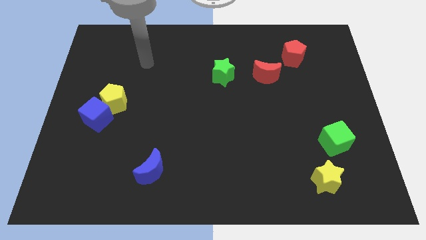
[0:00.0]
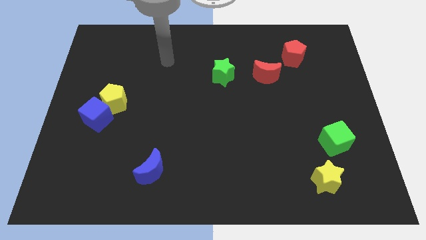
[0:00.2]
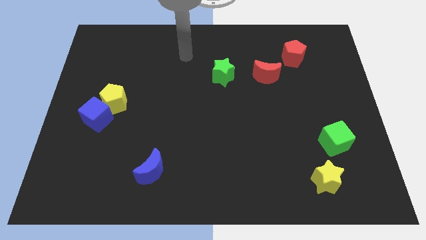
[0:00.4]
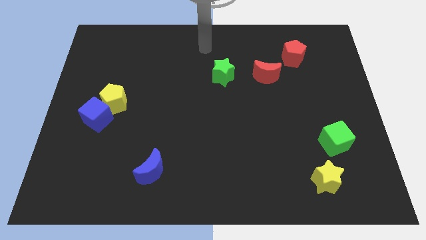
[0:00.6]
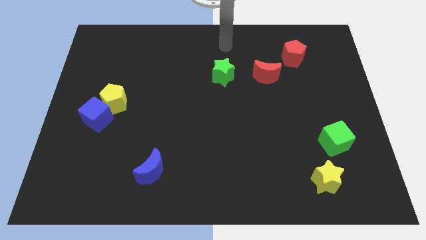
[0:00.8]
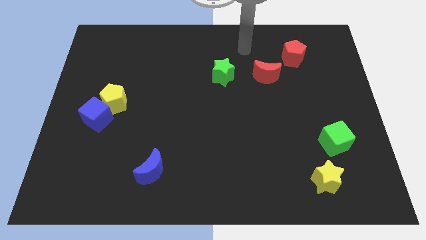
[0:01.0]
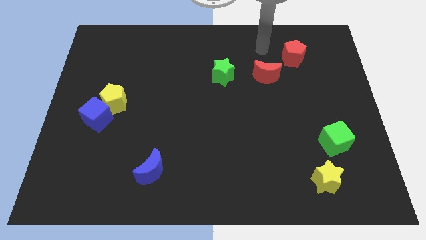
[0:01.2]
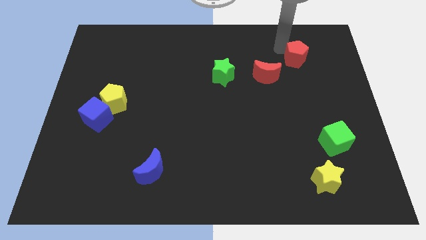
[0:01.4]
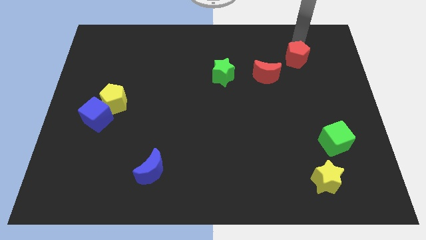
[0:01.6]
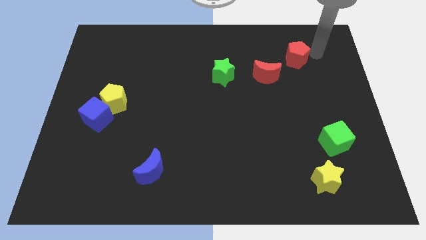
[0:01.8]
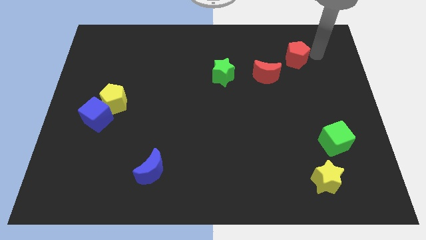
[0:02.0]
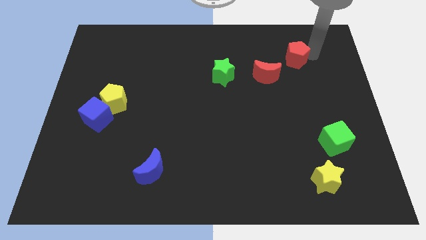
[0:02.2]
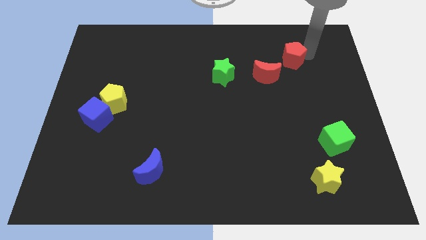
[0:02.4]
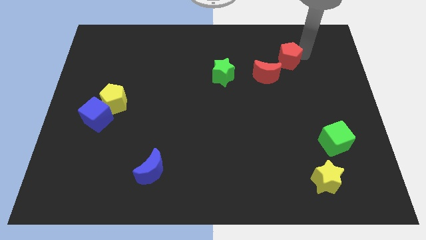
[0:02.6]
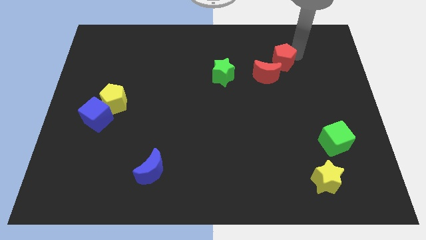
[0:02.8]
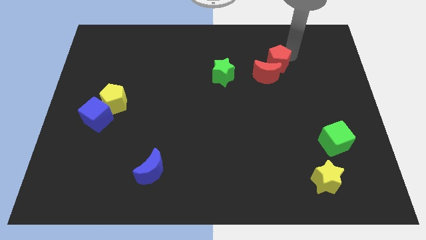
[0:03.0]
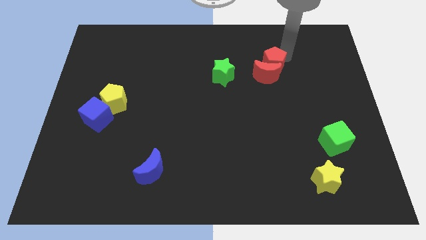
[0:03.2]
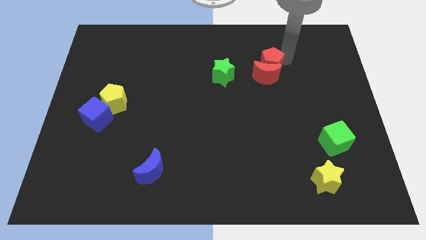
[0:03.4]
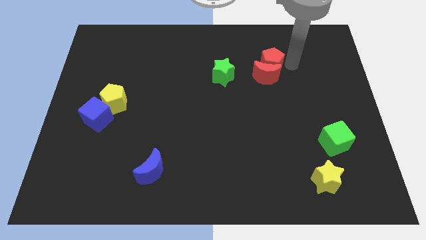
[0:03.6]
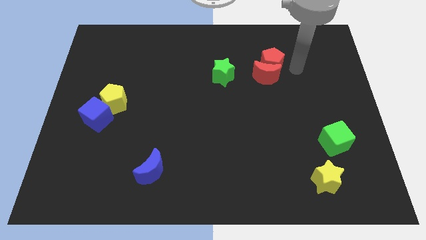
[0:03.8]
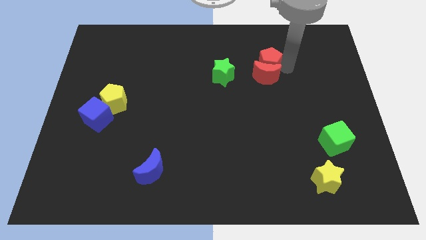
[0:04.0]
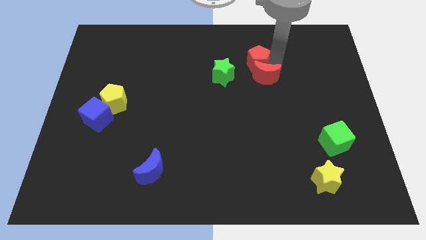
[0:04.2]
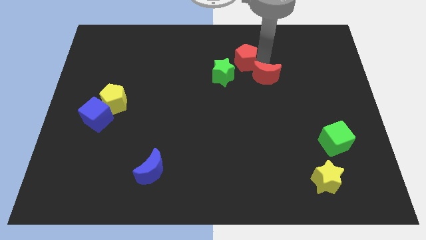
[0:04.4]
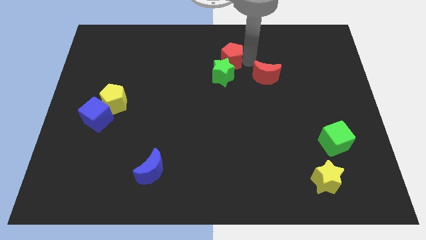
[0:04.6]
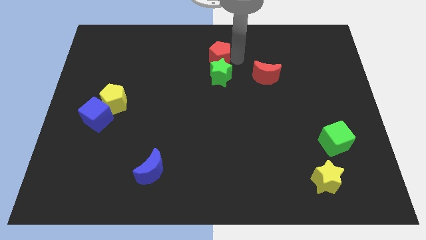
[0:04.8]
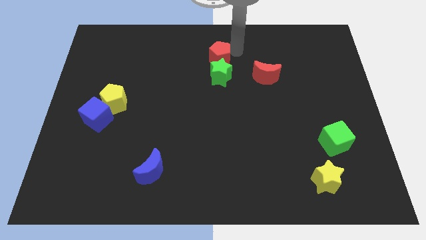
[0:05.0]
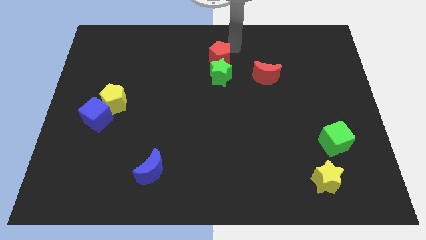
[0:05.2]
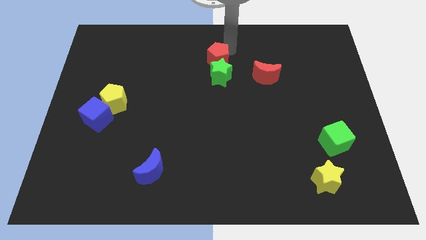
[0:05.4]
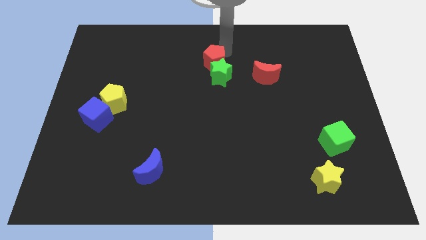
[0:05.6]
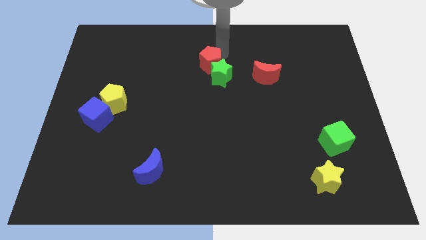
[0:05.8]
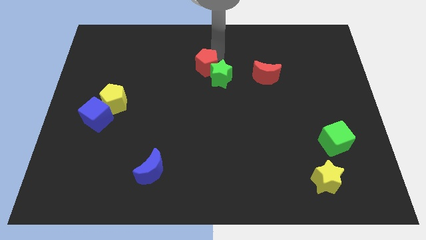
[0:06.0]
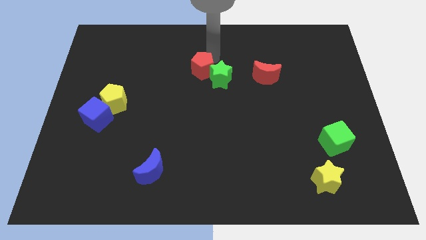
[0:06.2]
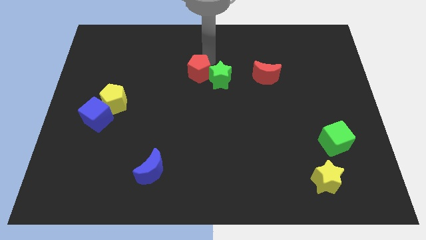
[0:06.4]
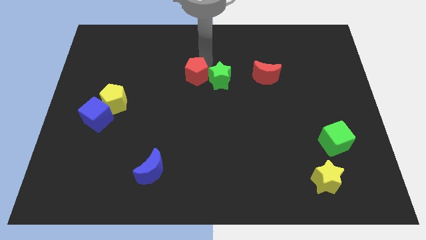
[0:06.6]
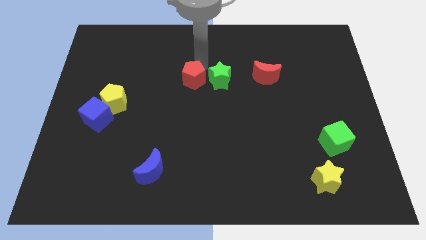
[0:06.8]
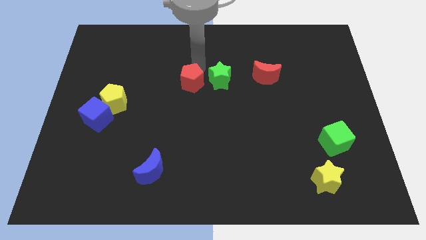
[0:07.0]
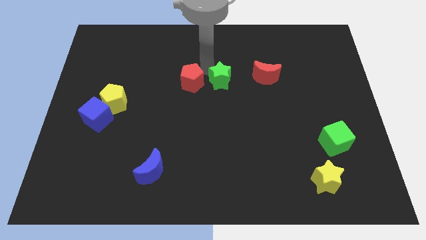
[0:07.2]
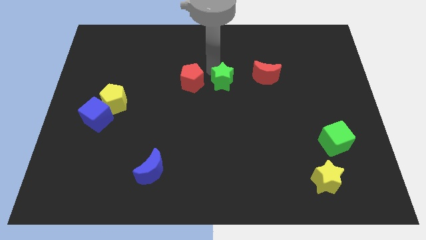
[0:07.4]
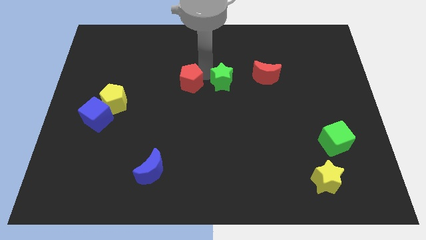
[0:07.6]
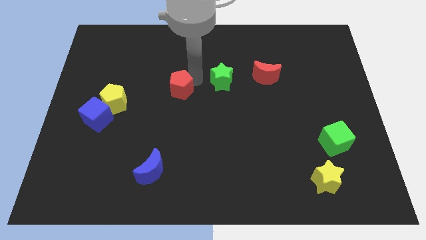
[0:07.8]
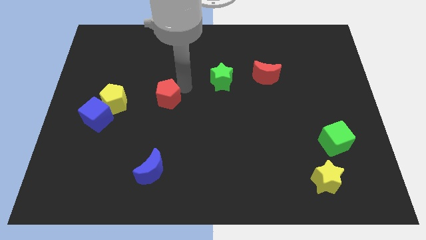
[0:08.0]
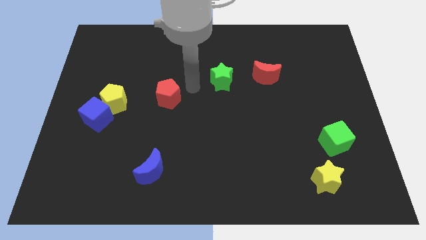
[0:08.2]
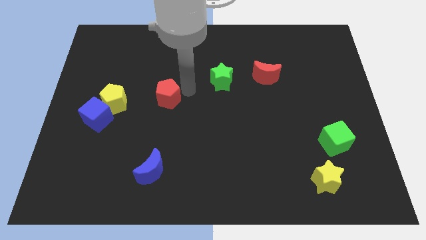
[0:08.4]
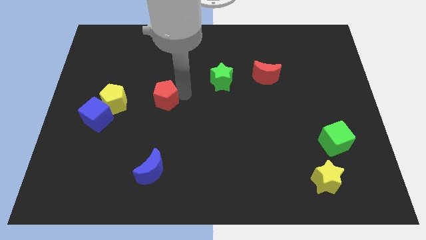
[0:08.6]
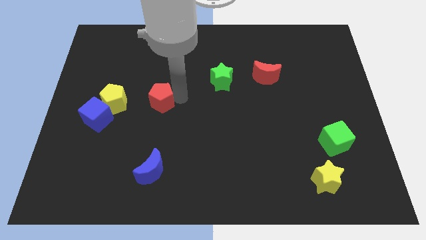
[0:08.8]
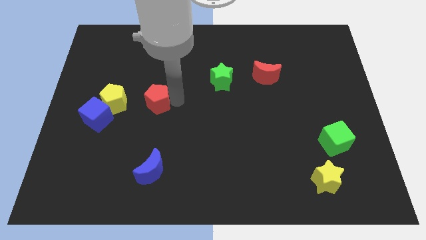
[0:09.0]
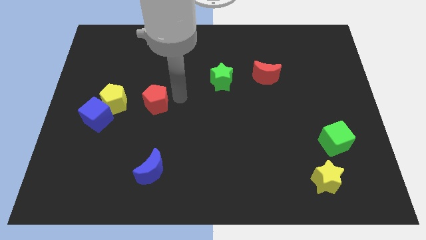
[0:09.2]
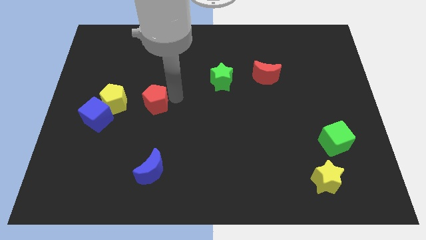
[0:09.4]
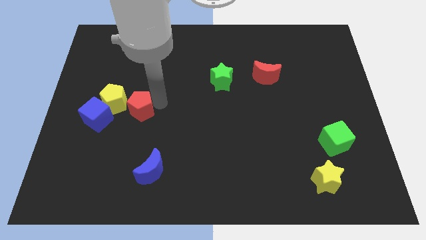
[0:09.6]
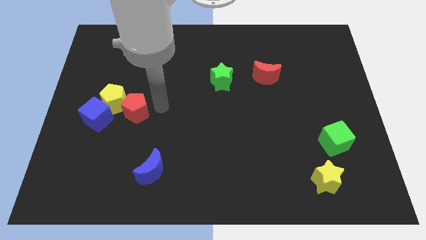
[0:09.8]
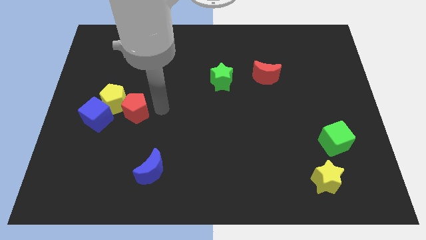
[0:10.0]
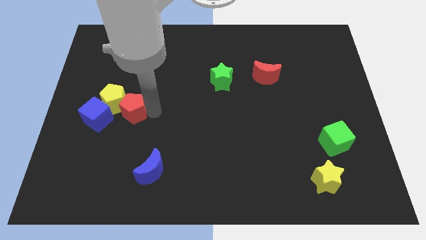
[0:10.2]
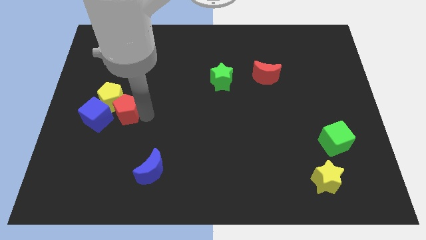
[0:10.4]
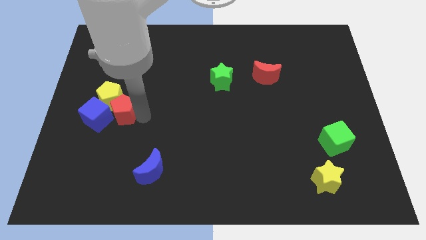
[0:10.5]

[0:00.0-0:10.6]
slide the red pentagon towards the blue cube

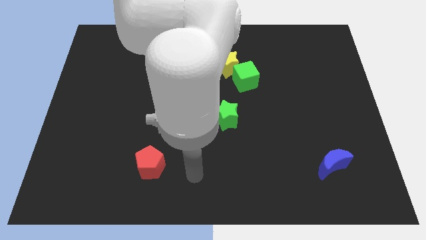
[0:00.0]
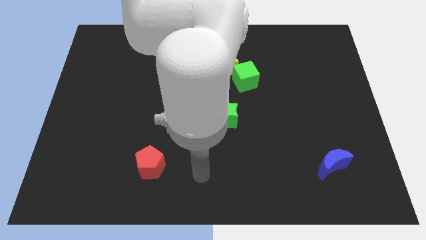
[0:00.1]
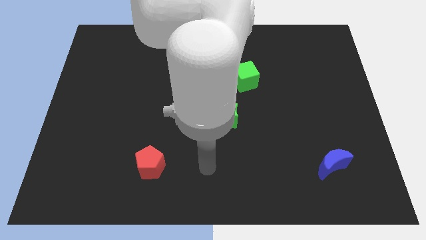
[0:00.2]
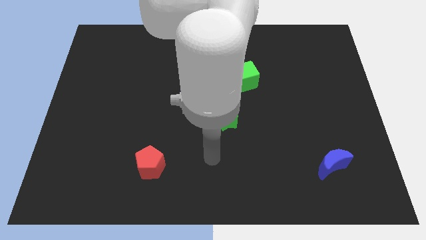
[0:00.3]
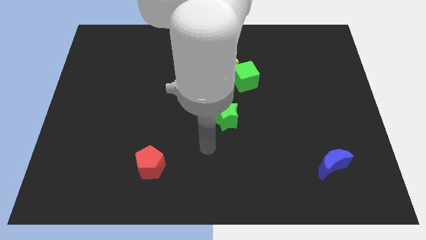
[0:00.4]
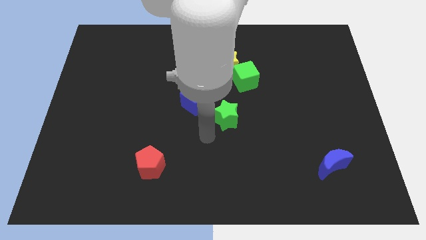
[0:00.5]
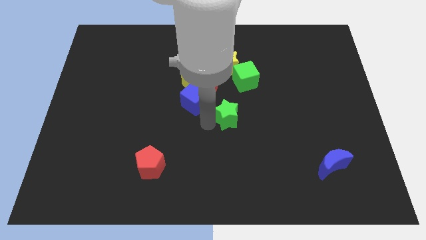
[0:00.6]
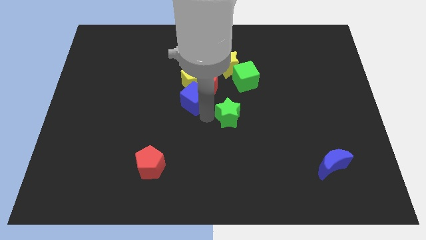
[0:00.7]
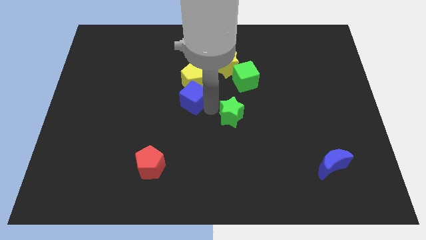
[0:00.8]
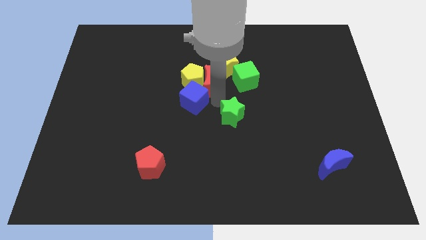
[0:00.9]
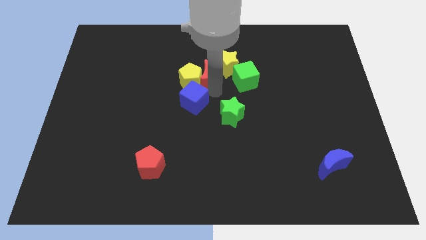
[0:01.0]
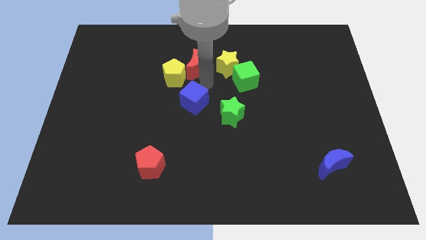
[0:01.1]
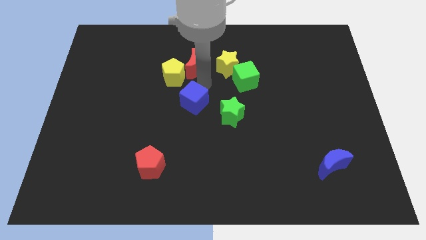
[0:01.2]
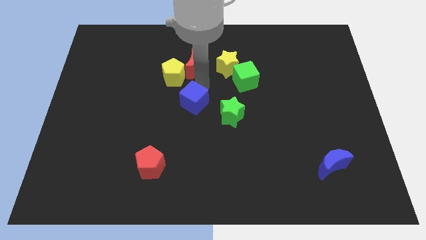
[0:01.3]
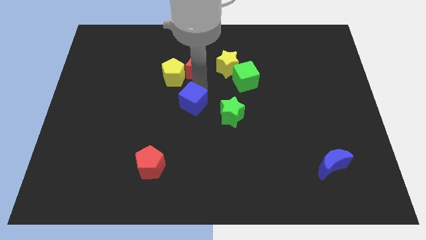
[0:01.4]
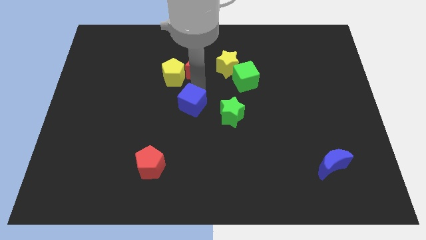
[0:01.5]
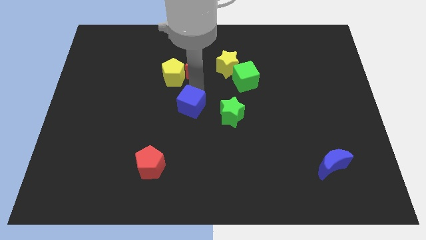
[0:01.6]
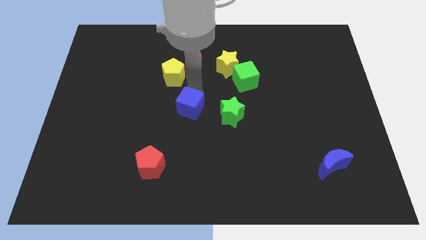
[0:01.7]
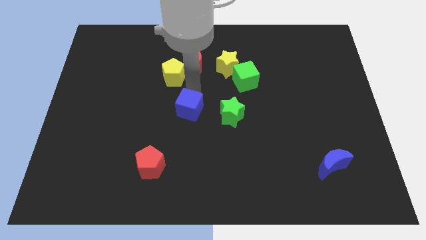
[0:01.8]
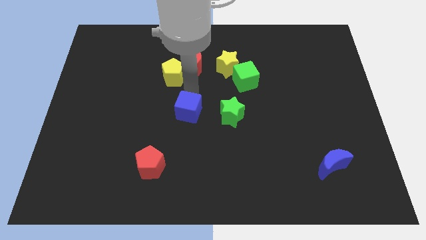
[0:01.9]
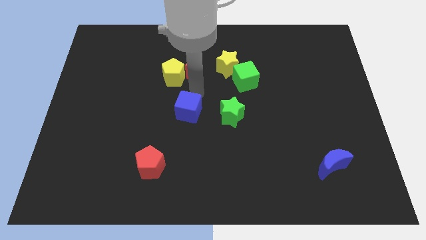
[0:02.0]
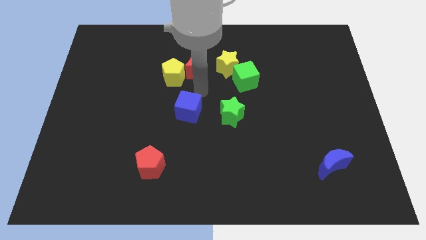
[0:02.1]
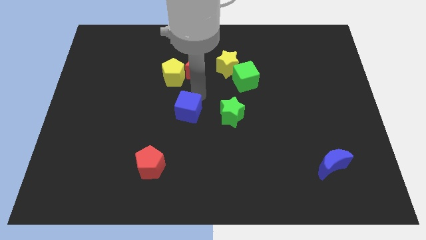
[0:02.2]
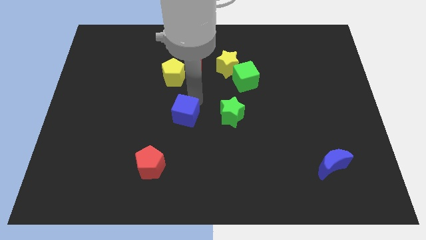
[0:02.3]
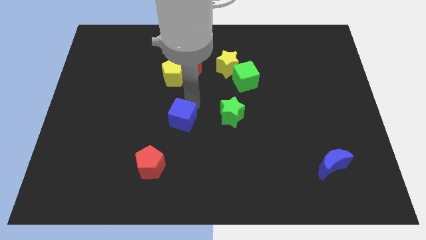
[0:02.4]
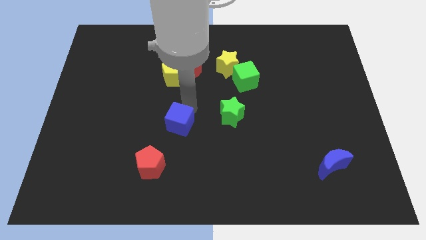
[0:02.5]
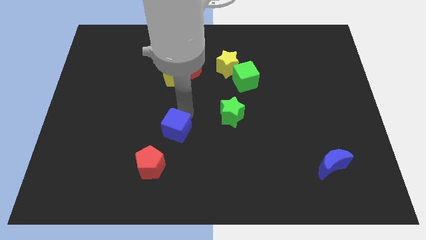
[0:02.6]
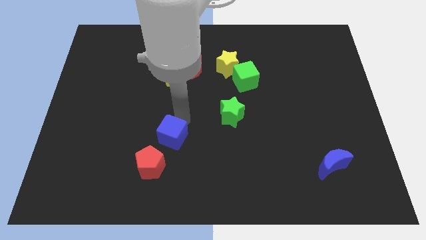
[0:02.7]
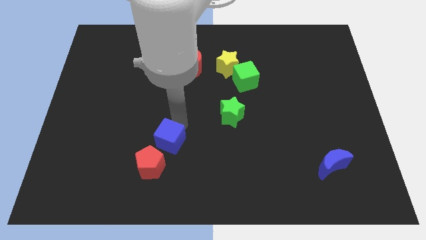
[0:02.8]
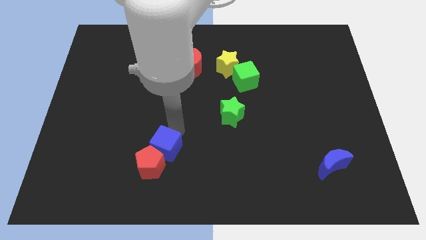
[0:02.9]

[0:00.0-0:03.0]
push the blue cube towards the red pentagon
